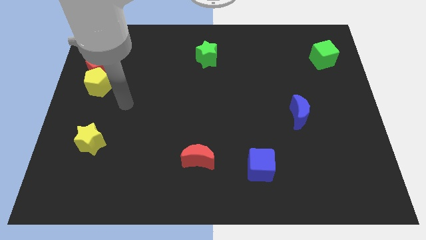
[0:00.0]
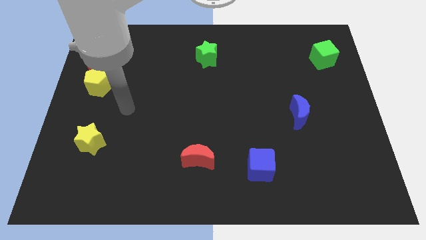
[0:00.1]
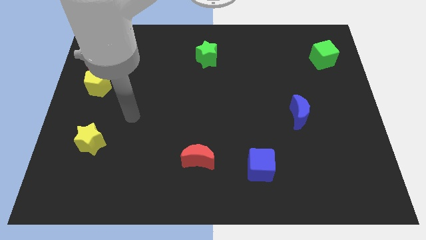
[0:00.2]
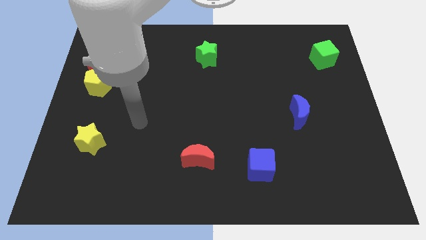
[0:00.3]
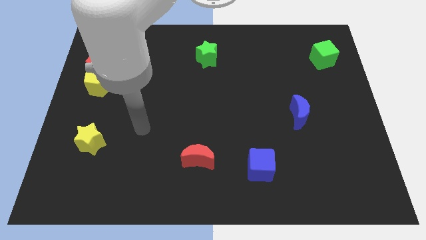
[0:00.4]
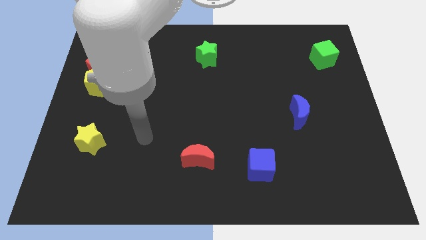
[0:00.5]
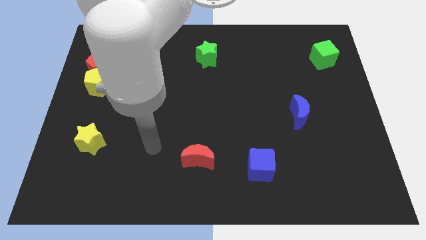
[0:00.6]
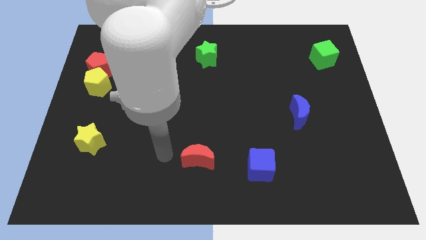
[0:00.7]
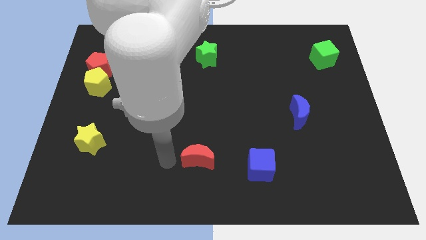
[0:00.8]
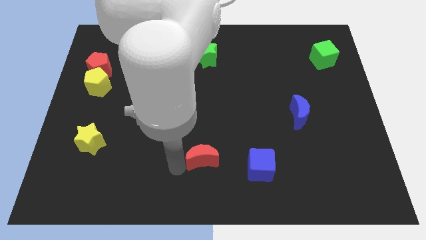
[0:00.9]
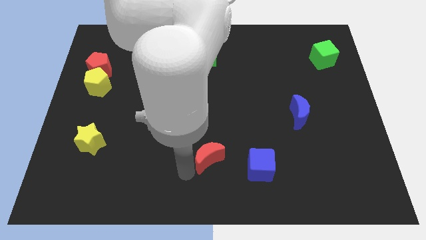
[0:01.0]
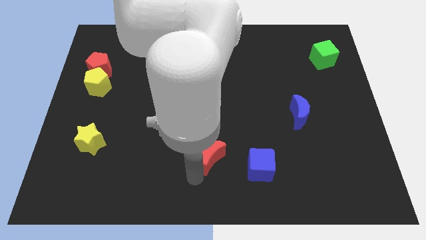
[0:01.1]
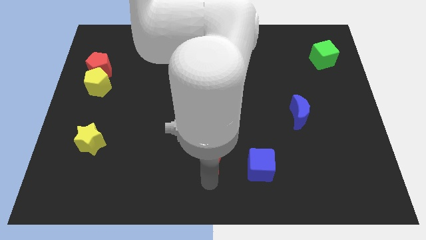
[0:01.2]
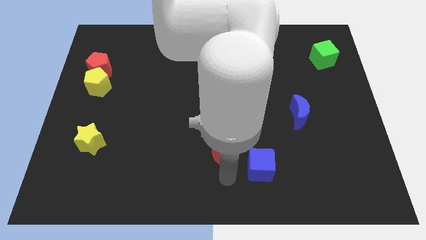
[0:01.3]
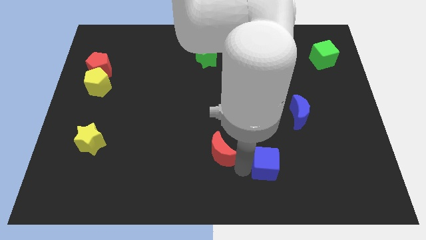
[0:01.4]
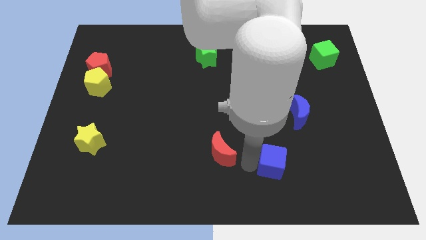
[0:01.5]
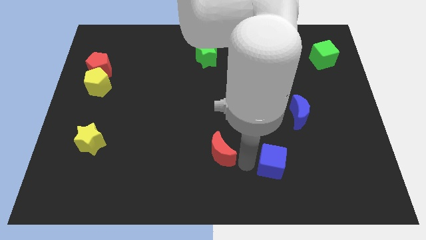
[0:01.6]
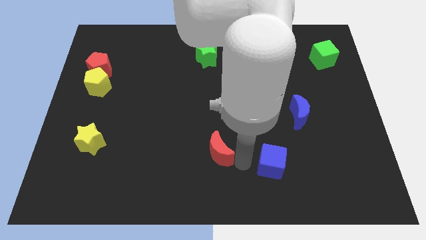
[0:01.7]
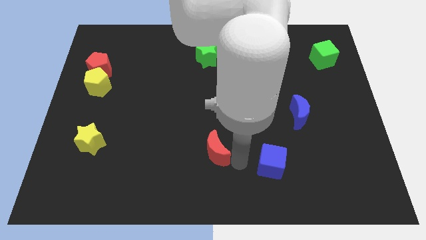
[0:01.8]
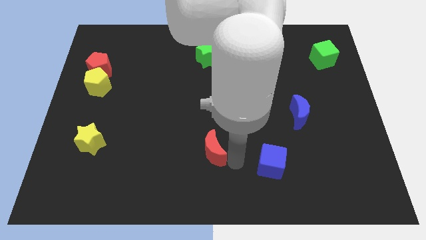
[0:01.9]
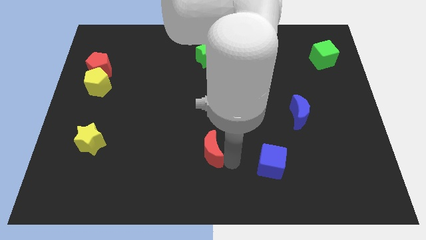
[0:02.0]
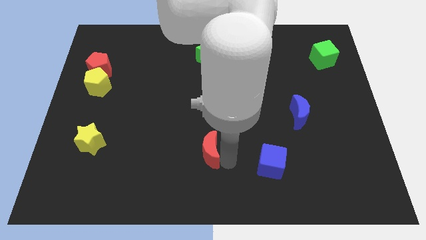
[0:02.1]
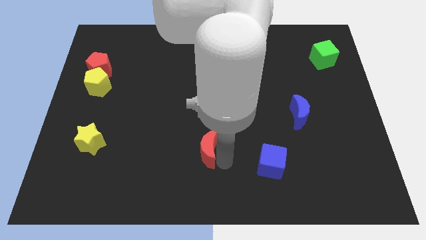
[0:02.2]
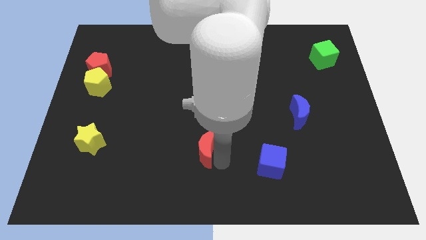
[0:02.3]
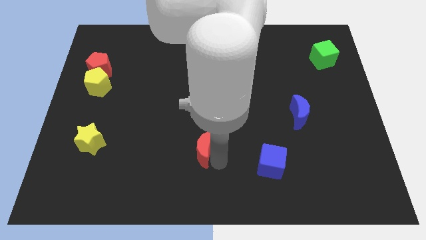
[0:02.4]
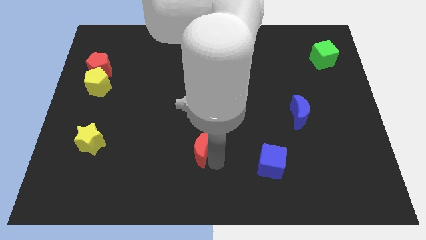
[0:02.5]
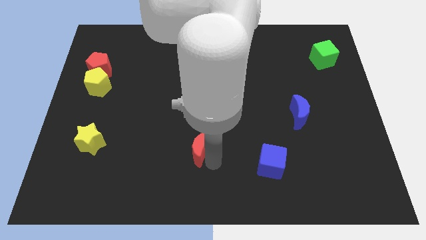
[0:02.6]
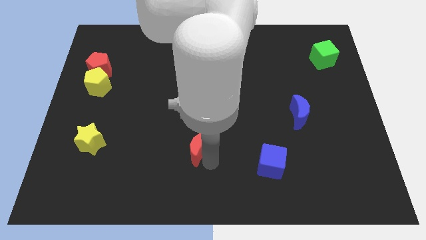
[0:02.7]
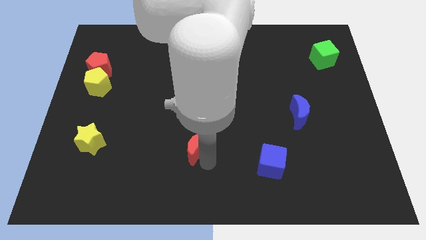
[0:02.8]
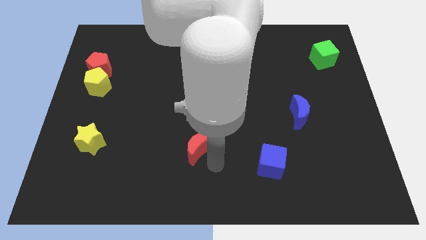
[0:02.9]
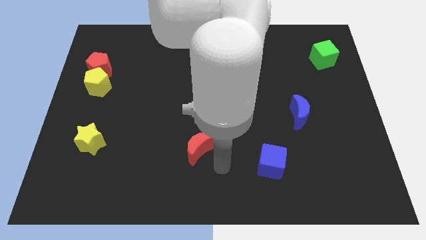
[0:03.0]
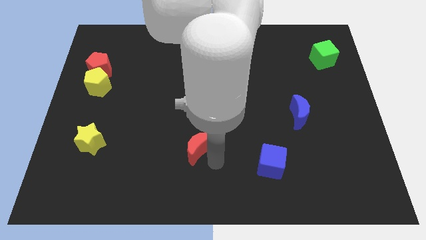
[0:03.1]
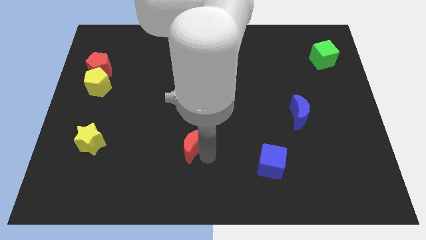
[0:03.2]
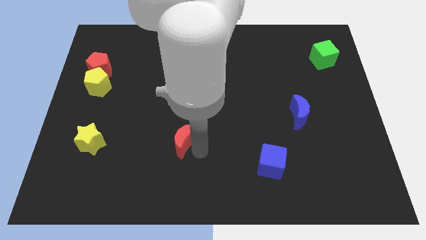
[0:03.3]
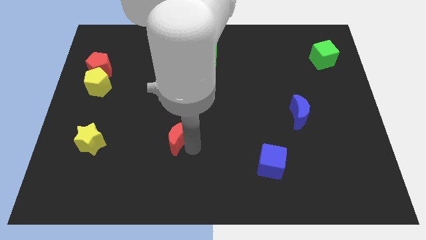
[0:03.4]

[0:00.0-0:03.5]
push the red moon diagonally up and left a little

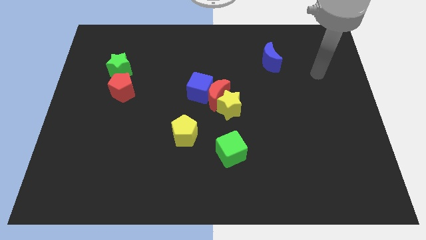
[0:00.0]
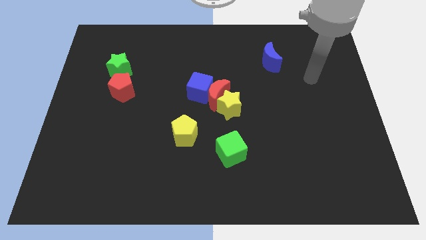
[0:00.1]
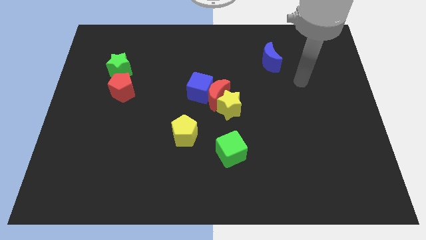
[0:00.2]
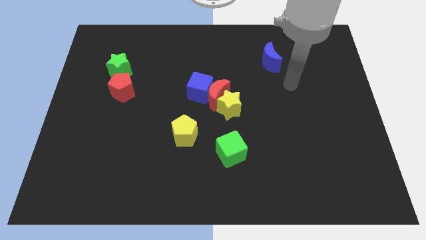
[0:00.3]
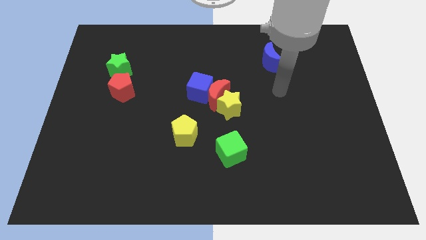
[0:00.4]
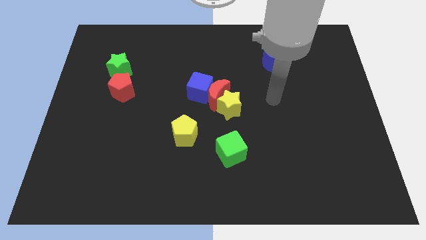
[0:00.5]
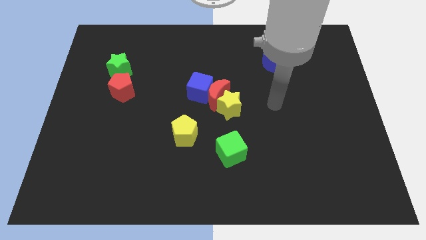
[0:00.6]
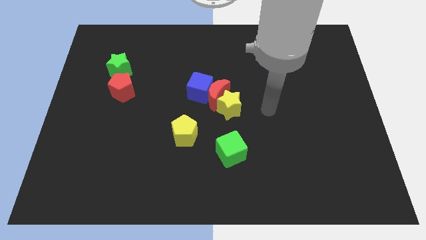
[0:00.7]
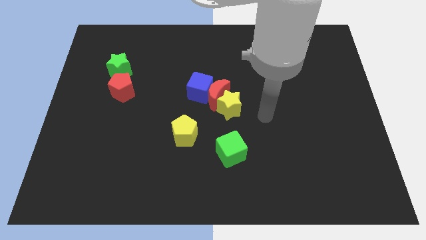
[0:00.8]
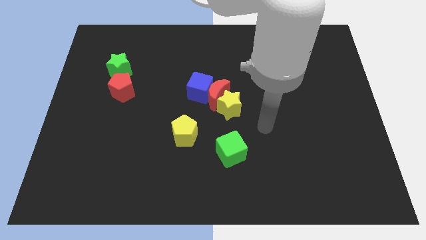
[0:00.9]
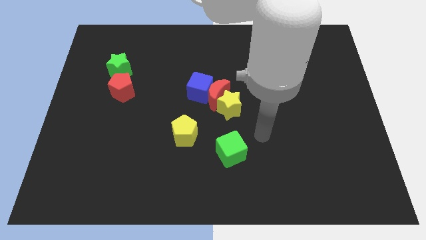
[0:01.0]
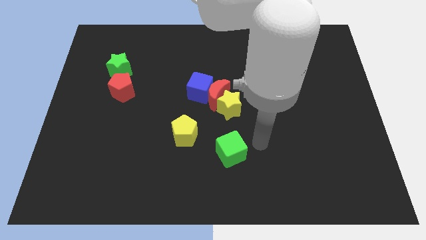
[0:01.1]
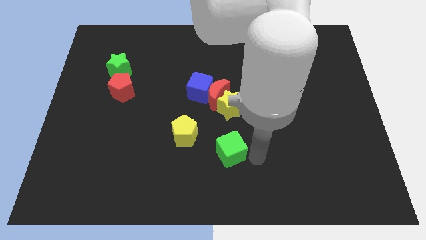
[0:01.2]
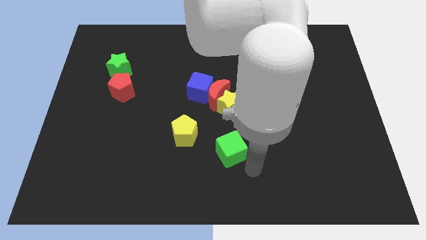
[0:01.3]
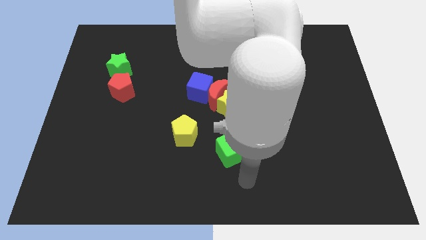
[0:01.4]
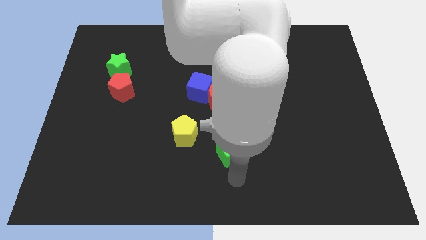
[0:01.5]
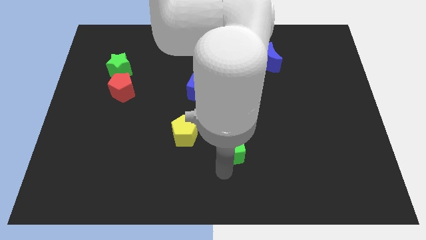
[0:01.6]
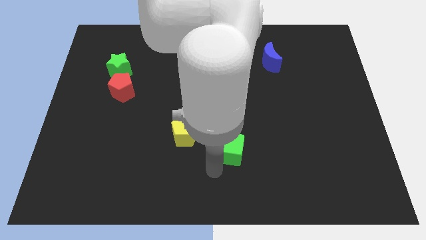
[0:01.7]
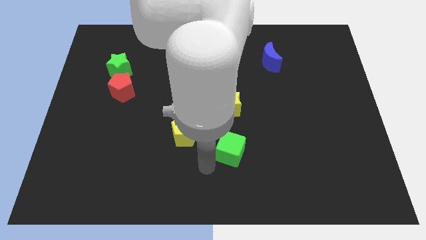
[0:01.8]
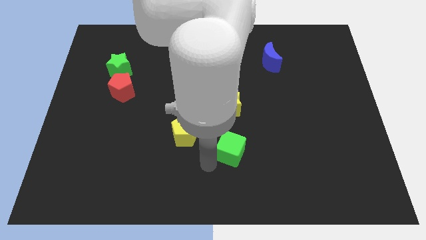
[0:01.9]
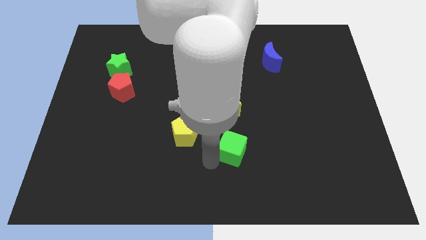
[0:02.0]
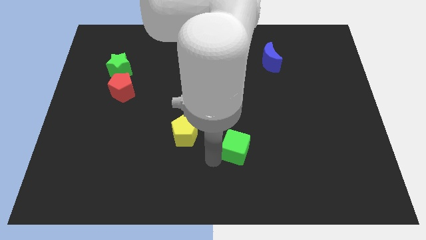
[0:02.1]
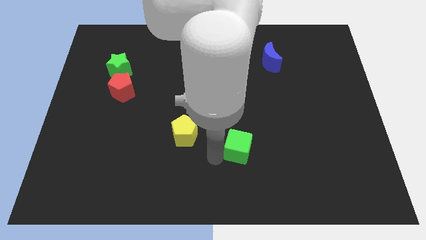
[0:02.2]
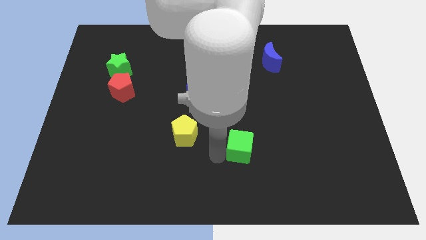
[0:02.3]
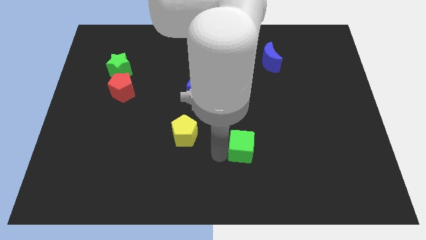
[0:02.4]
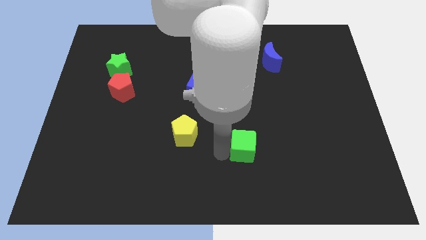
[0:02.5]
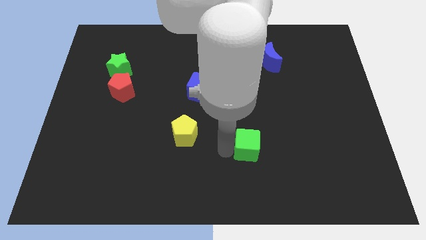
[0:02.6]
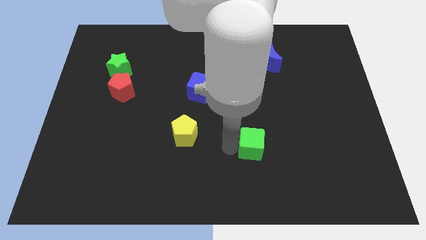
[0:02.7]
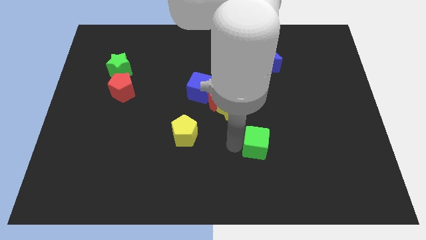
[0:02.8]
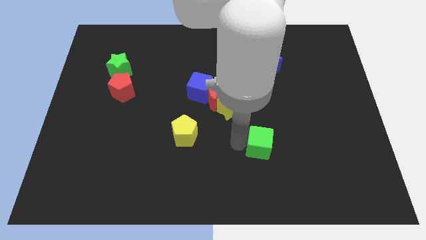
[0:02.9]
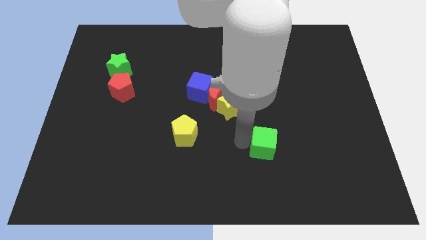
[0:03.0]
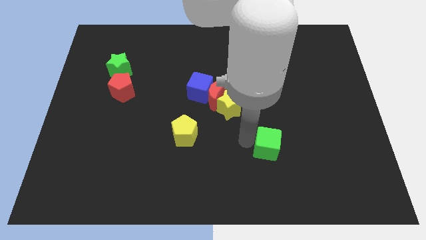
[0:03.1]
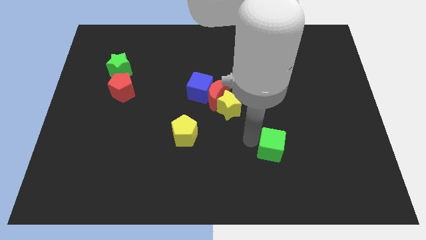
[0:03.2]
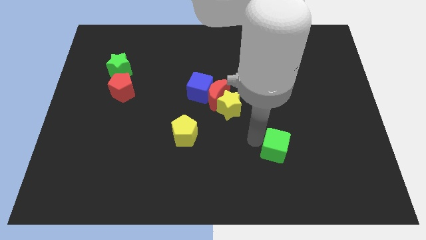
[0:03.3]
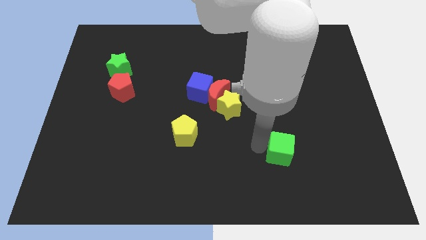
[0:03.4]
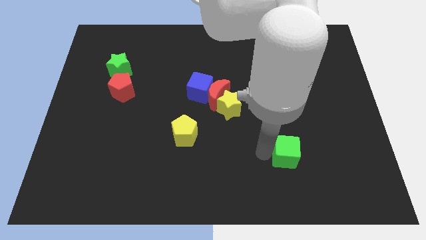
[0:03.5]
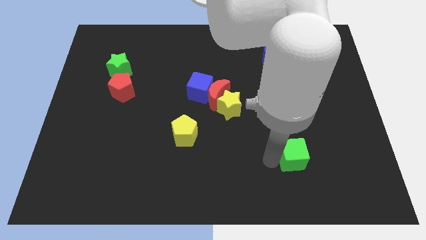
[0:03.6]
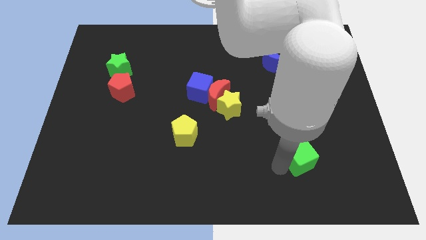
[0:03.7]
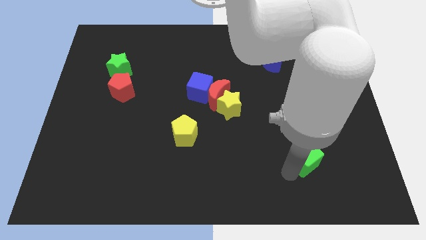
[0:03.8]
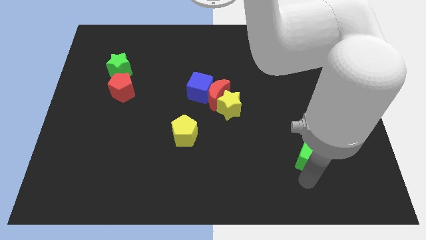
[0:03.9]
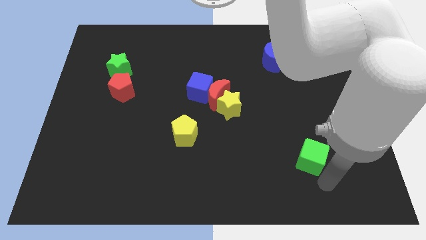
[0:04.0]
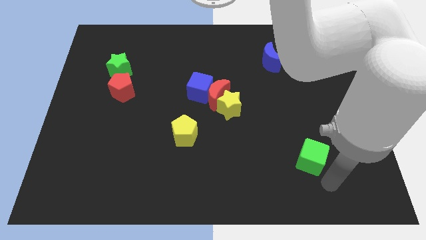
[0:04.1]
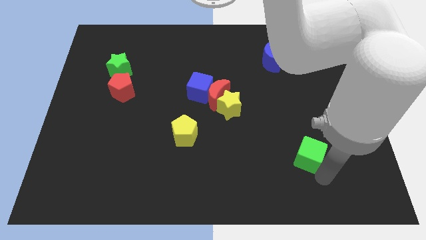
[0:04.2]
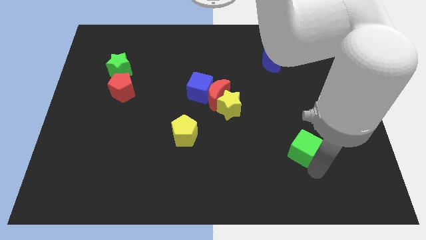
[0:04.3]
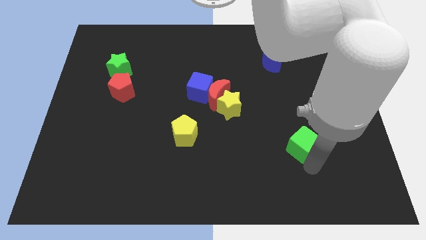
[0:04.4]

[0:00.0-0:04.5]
slide the green cube a little up and to the right
